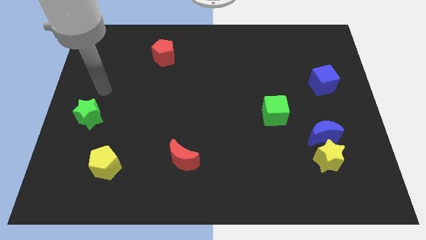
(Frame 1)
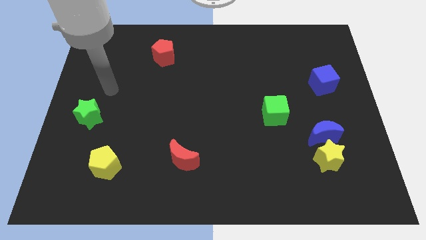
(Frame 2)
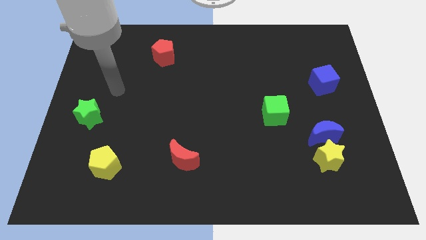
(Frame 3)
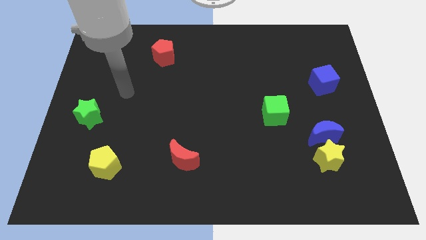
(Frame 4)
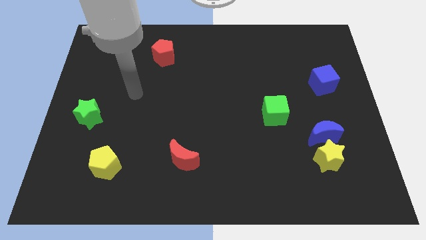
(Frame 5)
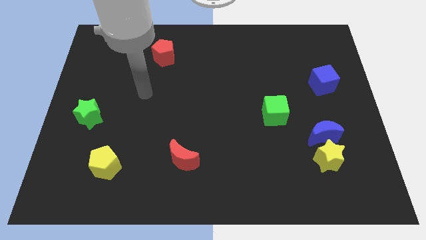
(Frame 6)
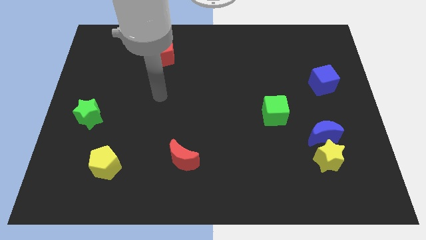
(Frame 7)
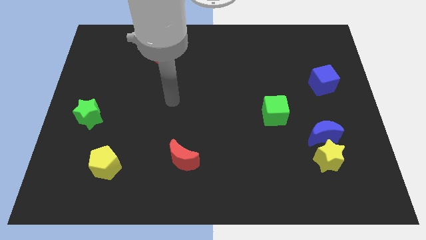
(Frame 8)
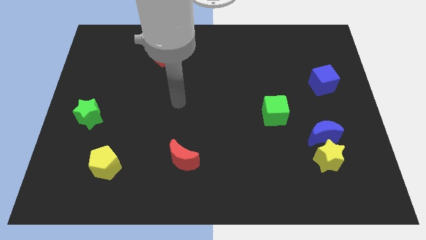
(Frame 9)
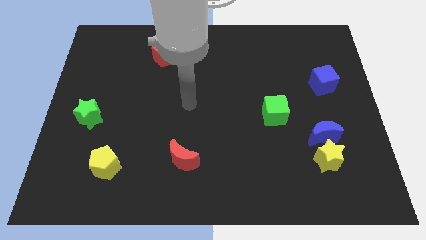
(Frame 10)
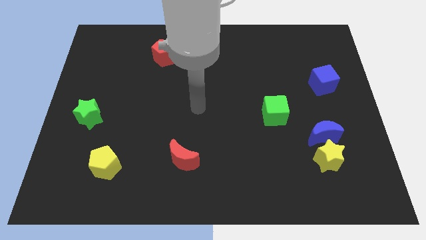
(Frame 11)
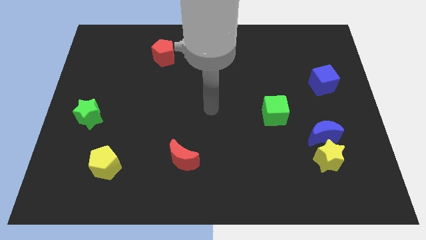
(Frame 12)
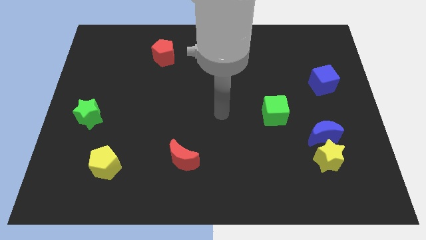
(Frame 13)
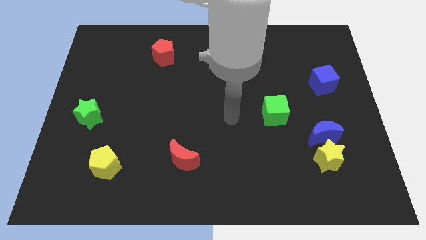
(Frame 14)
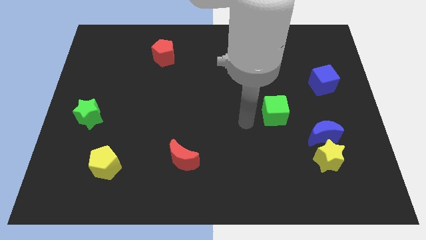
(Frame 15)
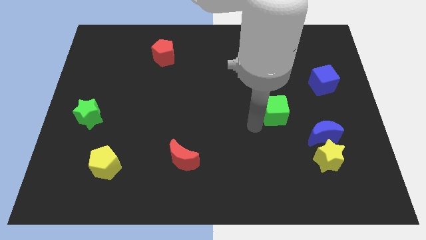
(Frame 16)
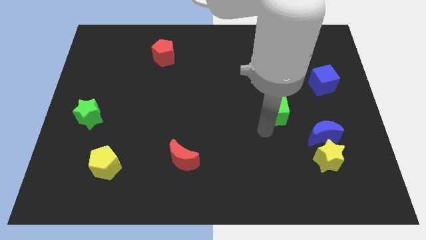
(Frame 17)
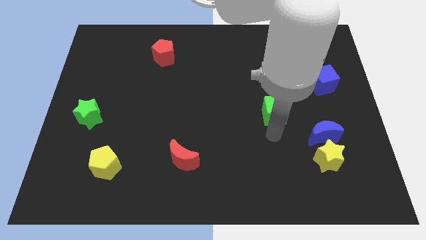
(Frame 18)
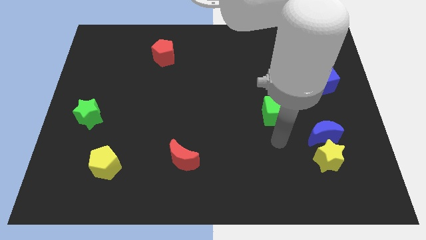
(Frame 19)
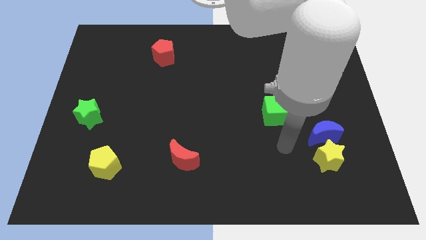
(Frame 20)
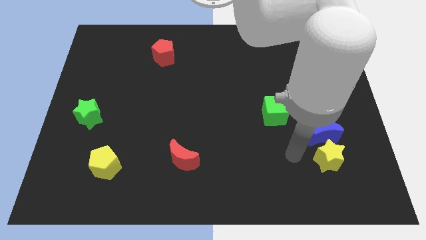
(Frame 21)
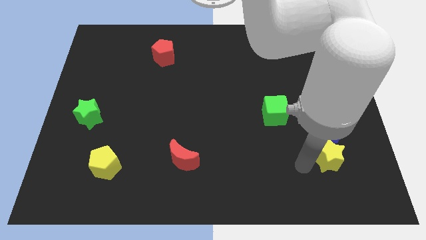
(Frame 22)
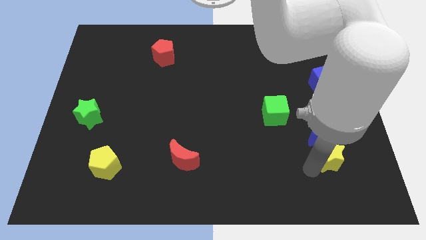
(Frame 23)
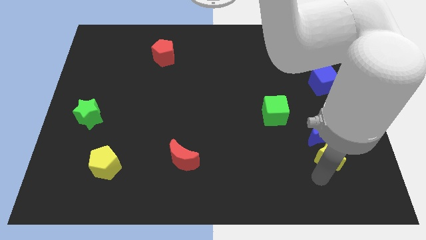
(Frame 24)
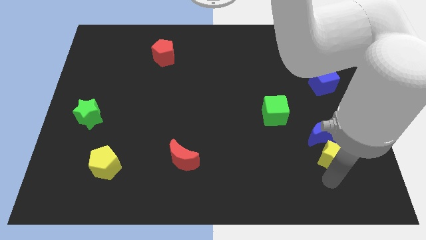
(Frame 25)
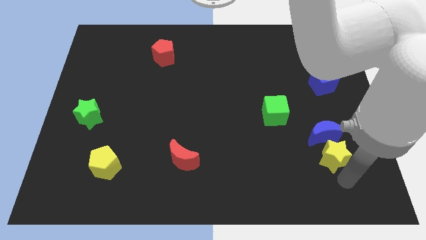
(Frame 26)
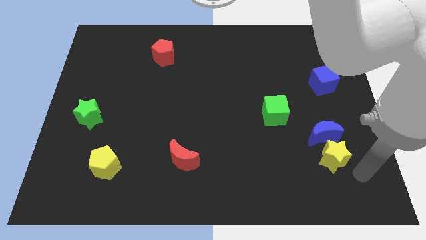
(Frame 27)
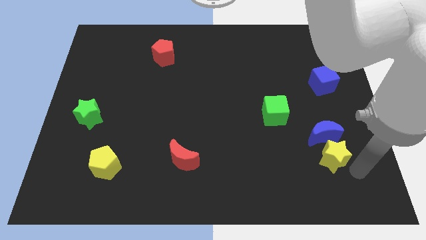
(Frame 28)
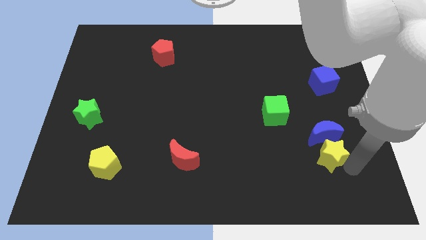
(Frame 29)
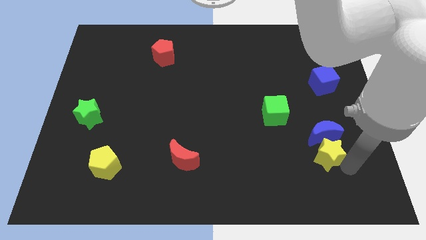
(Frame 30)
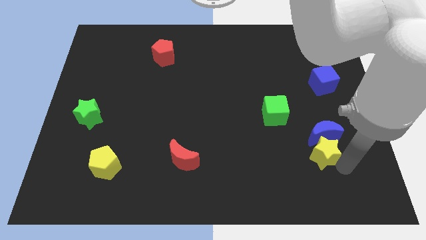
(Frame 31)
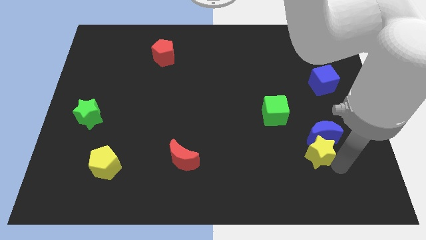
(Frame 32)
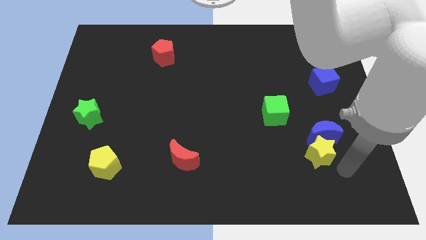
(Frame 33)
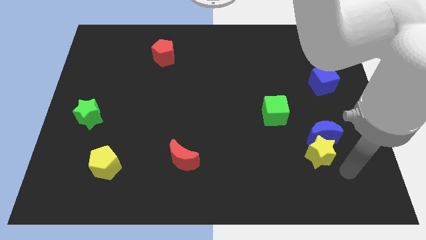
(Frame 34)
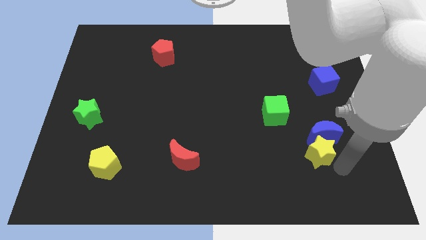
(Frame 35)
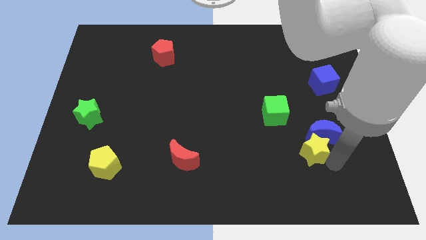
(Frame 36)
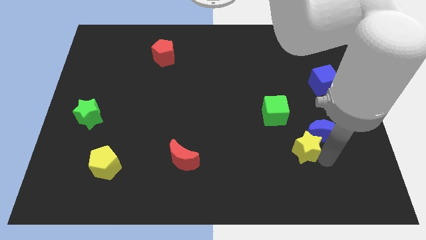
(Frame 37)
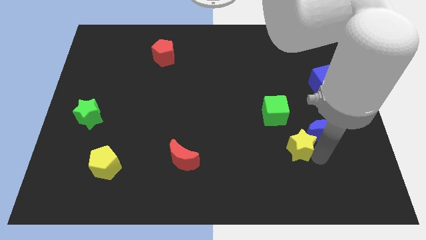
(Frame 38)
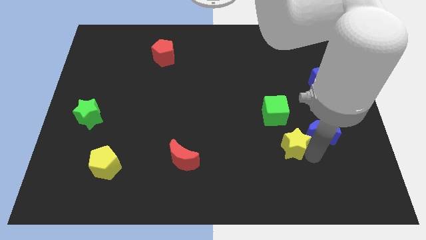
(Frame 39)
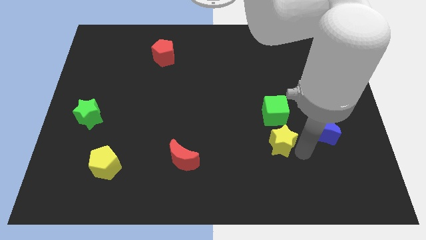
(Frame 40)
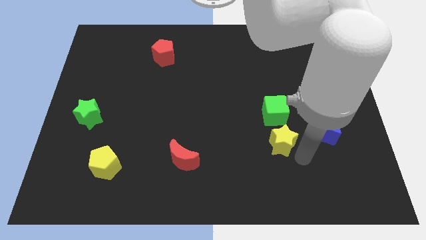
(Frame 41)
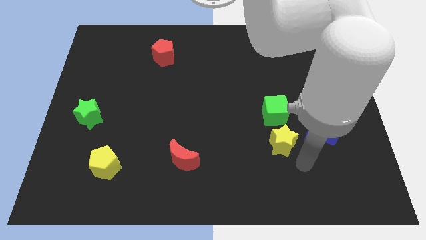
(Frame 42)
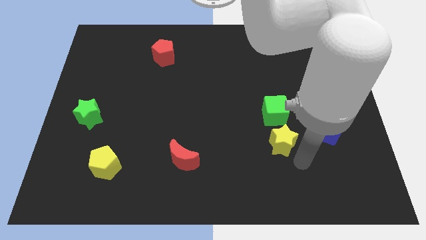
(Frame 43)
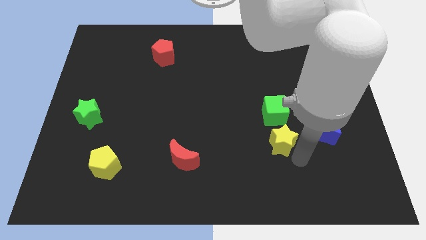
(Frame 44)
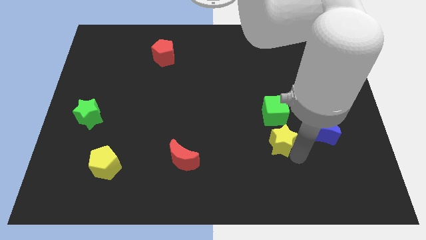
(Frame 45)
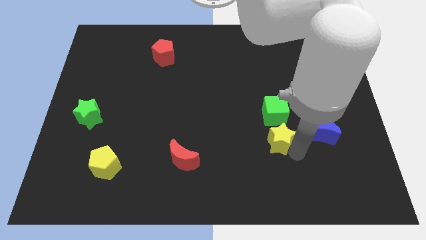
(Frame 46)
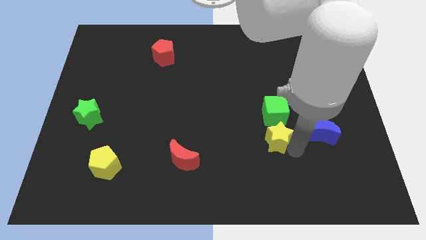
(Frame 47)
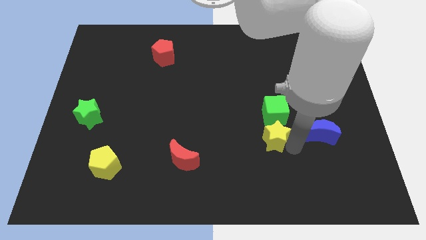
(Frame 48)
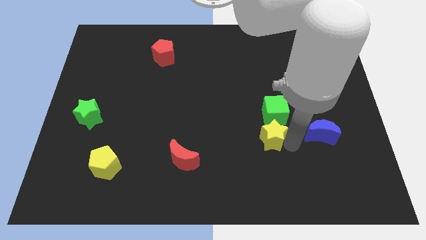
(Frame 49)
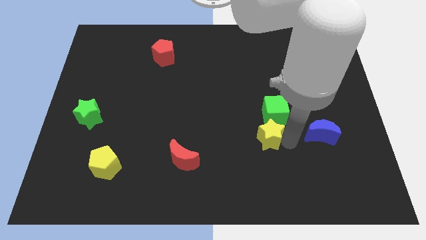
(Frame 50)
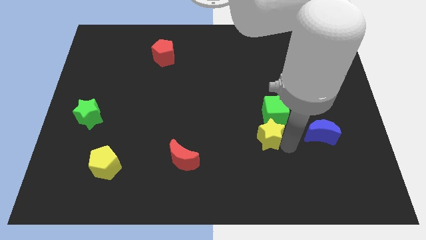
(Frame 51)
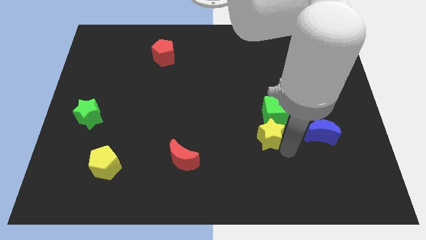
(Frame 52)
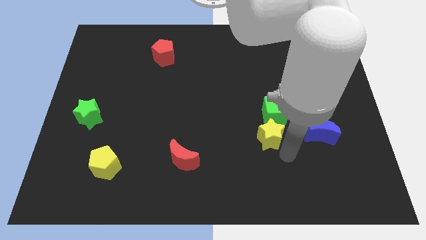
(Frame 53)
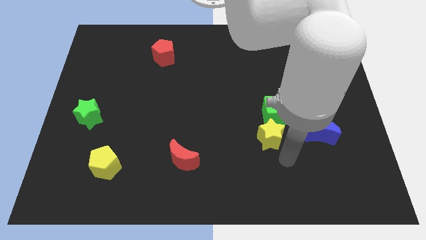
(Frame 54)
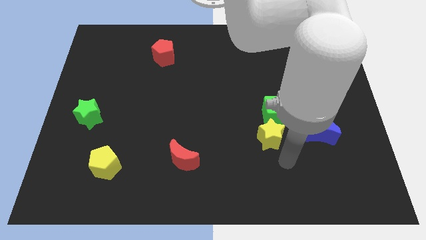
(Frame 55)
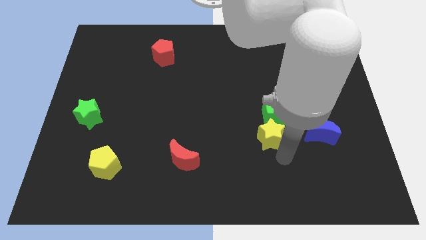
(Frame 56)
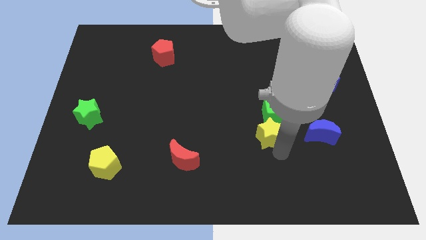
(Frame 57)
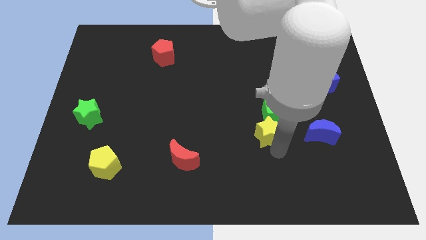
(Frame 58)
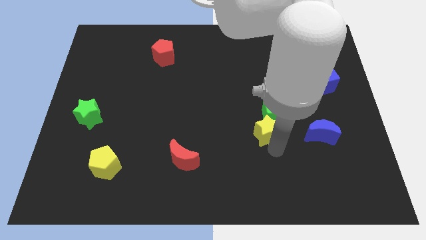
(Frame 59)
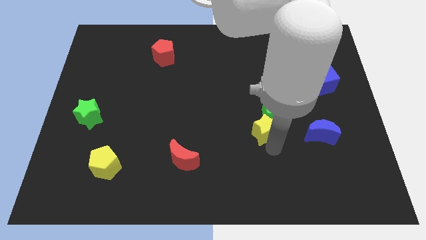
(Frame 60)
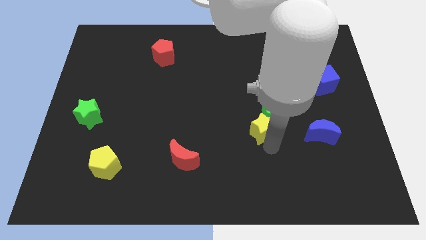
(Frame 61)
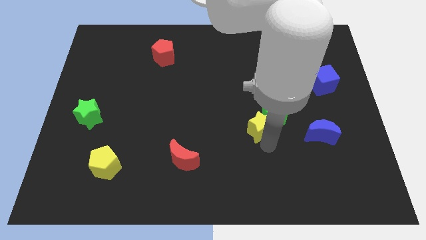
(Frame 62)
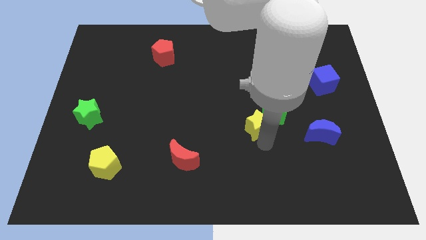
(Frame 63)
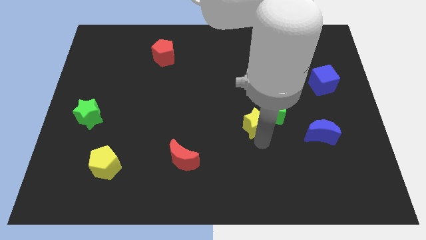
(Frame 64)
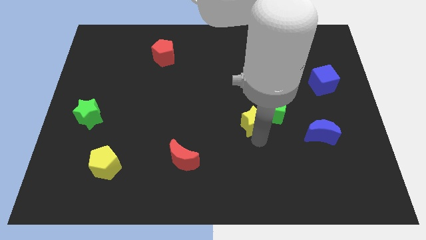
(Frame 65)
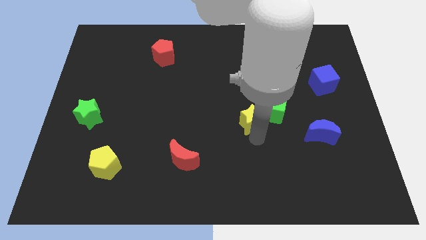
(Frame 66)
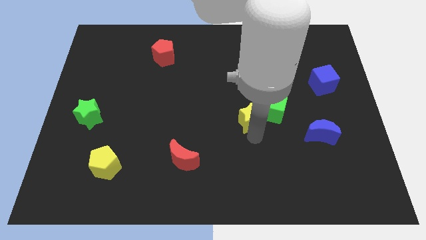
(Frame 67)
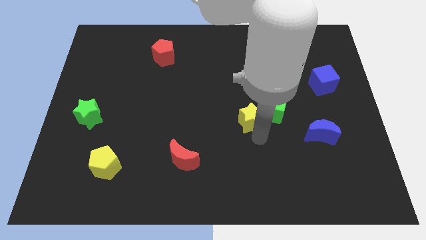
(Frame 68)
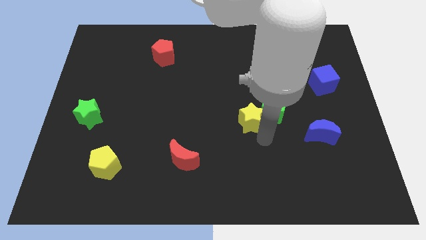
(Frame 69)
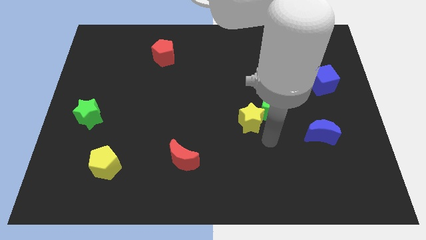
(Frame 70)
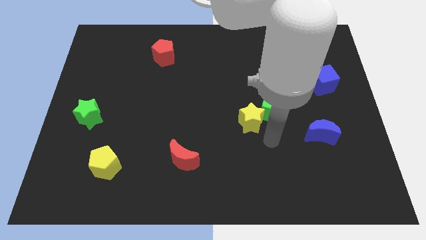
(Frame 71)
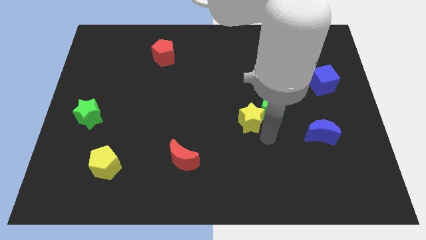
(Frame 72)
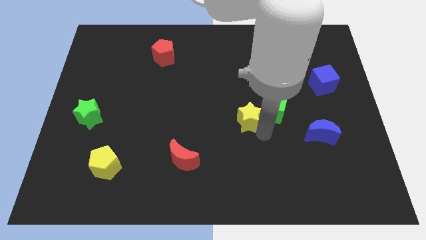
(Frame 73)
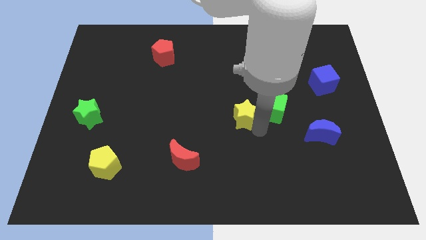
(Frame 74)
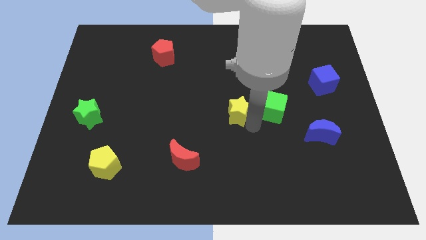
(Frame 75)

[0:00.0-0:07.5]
push the yellow star up and left

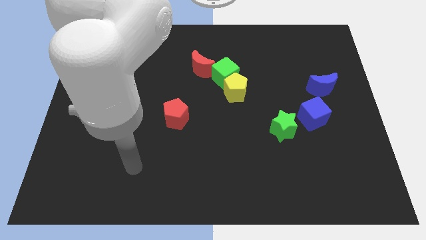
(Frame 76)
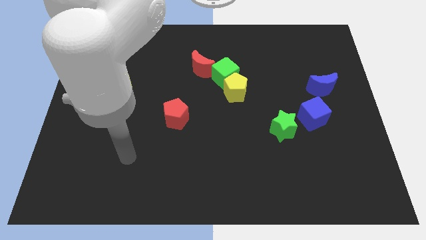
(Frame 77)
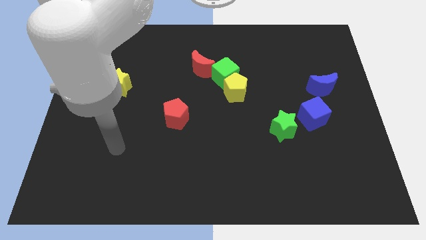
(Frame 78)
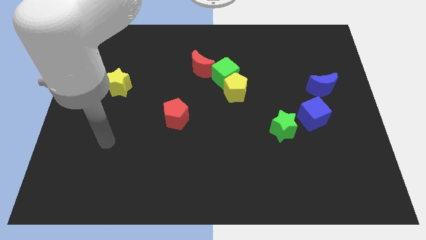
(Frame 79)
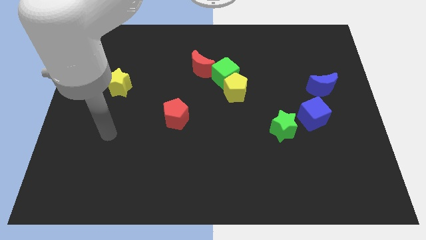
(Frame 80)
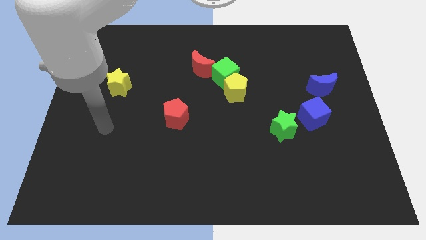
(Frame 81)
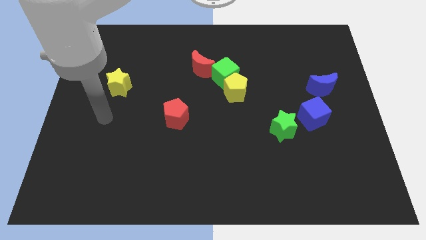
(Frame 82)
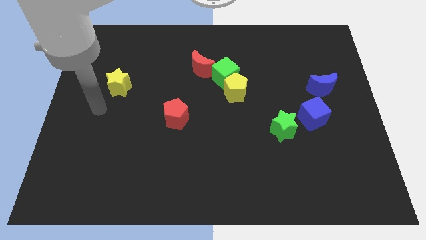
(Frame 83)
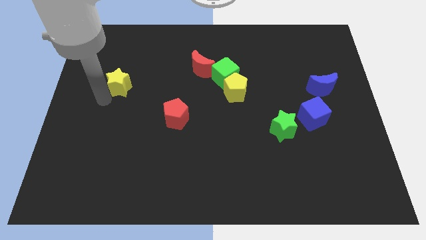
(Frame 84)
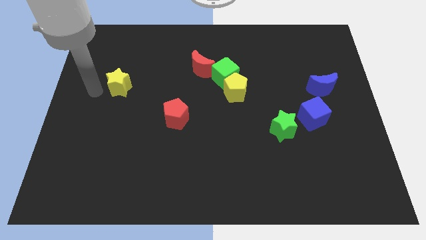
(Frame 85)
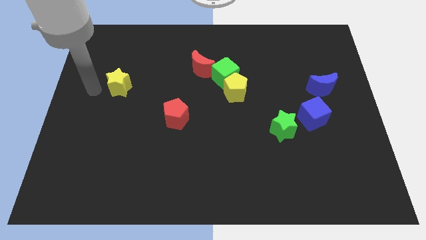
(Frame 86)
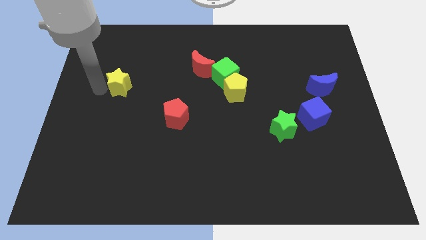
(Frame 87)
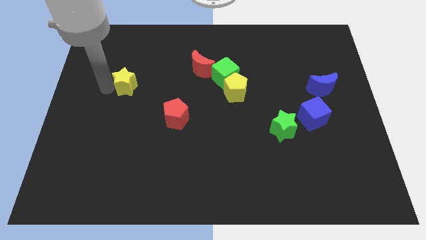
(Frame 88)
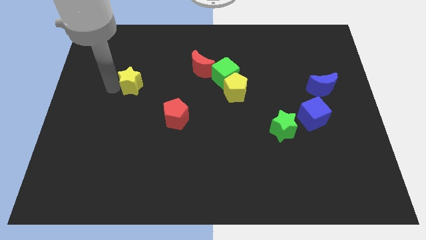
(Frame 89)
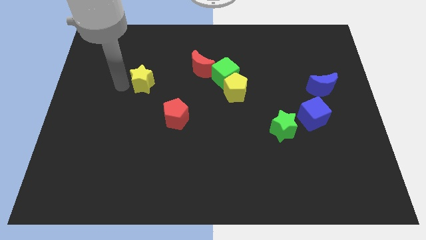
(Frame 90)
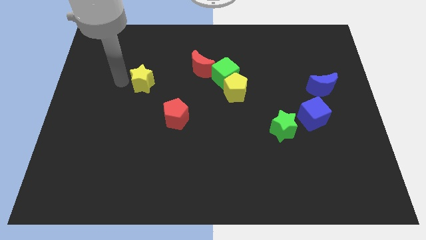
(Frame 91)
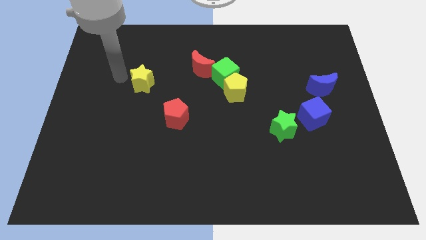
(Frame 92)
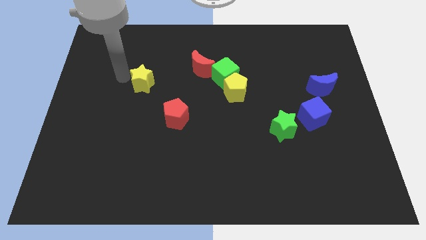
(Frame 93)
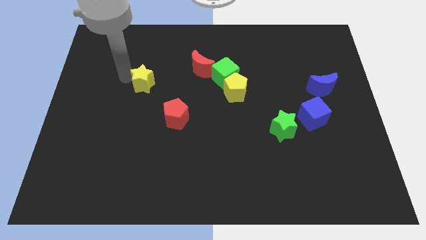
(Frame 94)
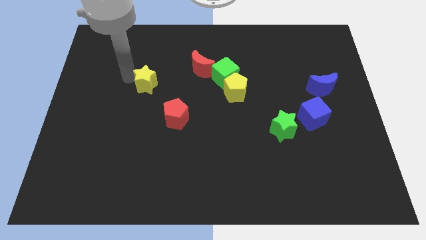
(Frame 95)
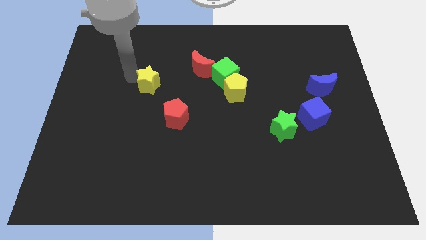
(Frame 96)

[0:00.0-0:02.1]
slide the yellow star a little bit to the right
